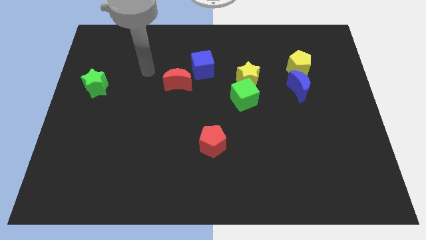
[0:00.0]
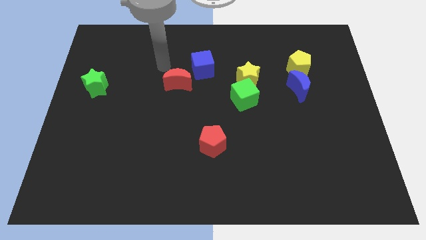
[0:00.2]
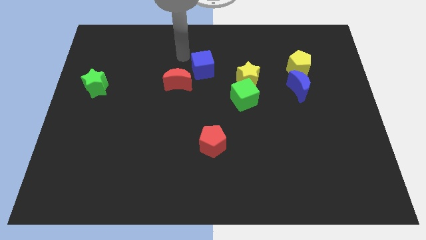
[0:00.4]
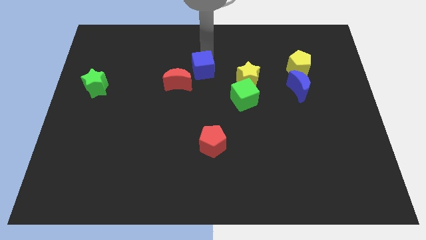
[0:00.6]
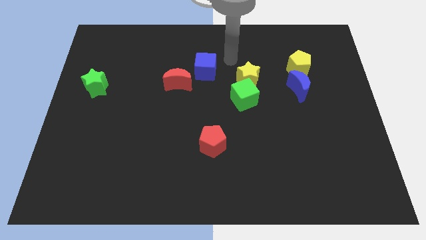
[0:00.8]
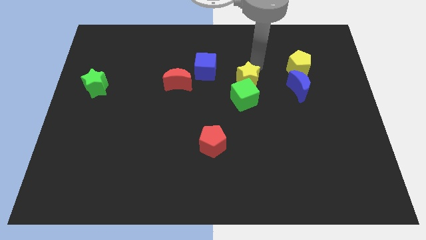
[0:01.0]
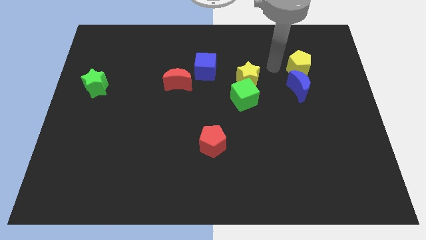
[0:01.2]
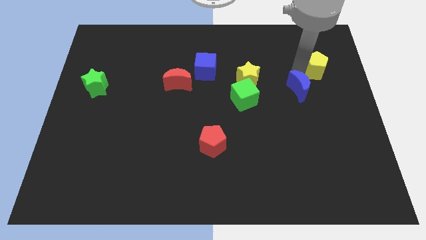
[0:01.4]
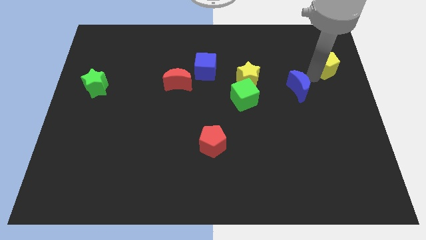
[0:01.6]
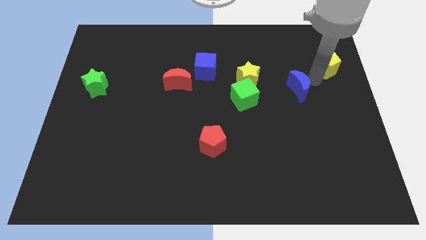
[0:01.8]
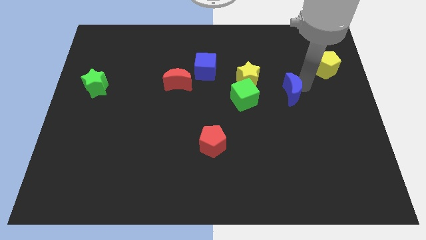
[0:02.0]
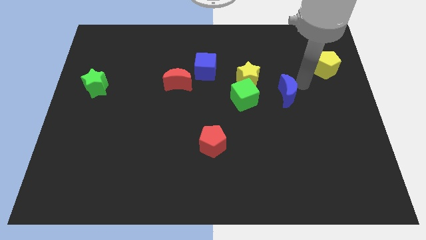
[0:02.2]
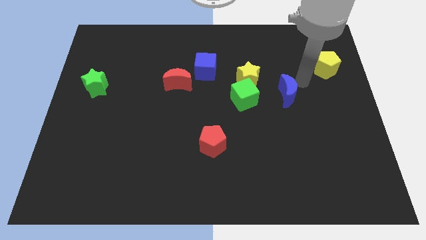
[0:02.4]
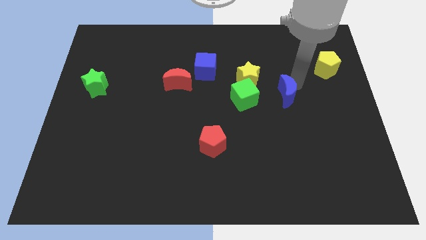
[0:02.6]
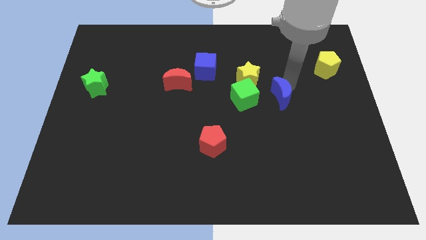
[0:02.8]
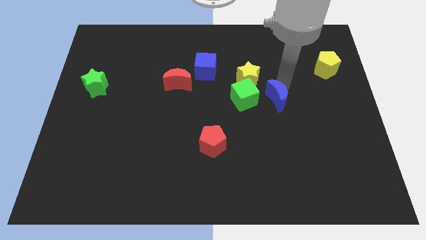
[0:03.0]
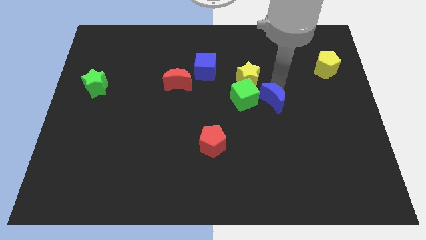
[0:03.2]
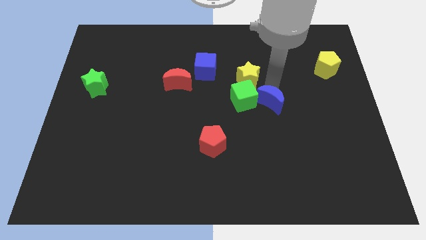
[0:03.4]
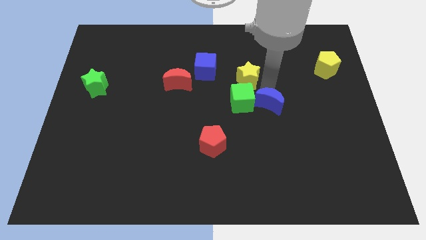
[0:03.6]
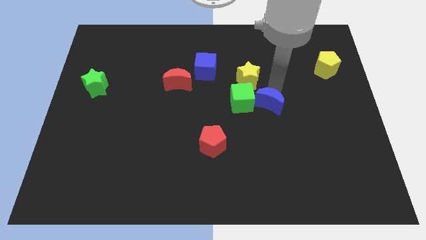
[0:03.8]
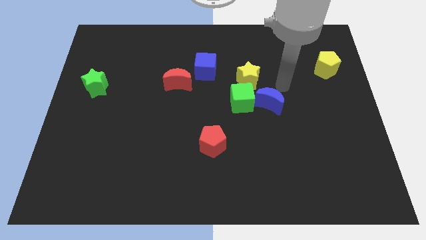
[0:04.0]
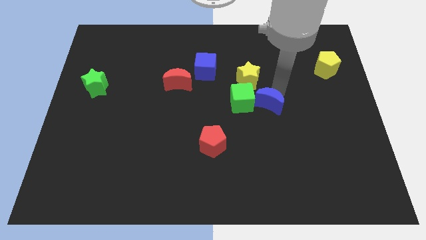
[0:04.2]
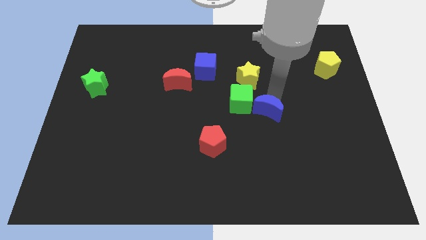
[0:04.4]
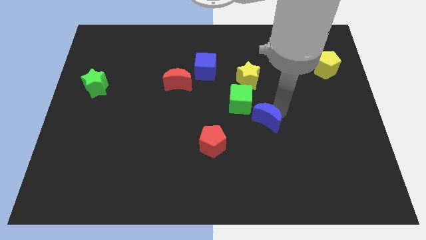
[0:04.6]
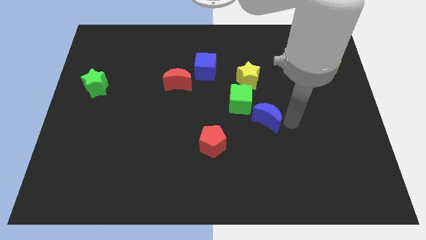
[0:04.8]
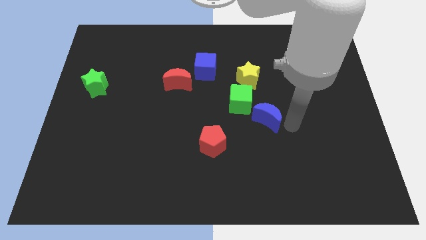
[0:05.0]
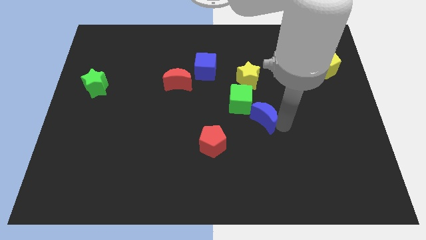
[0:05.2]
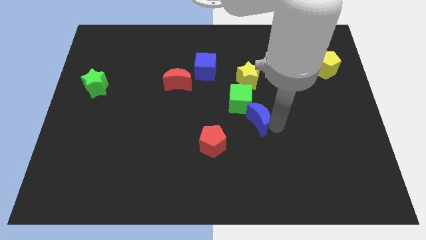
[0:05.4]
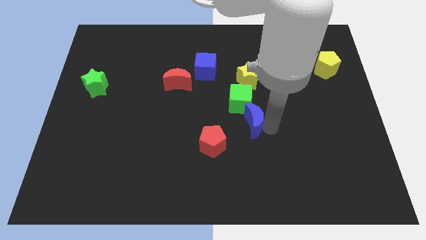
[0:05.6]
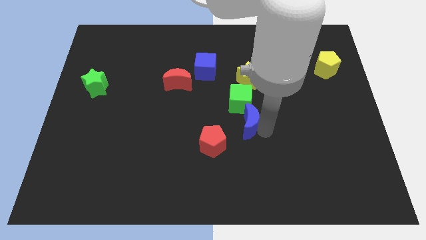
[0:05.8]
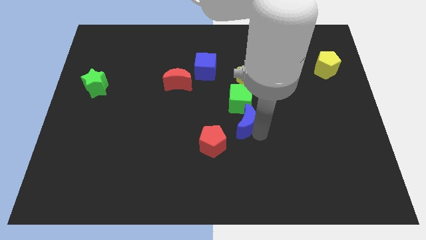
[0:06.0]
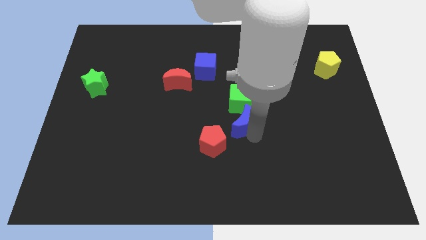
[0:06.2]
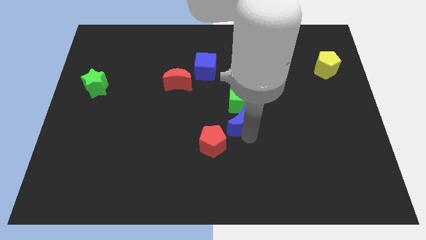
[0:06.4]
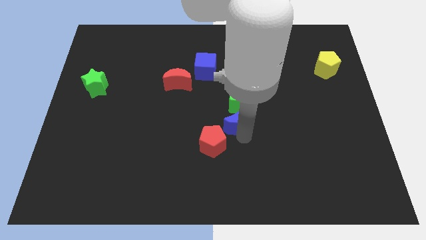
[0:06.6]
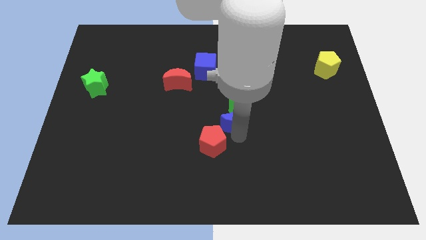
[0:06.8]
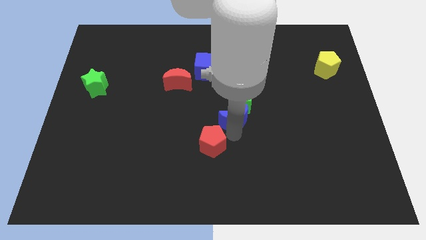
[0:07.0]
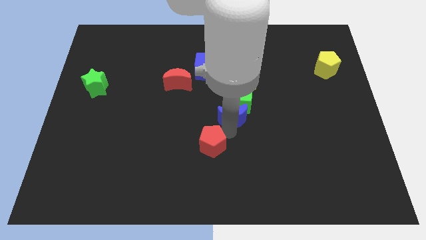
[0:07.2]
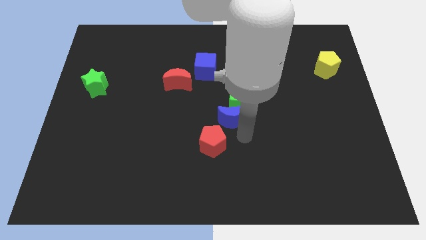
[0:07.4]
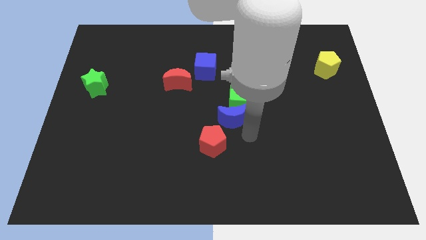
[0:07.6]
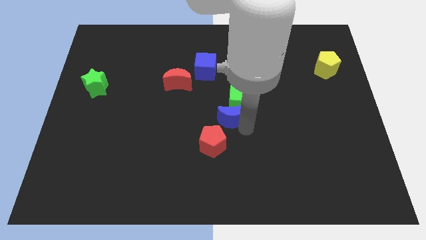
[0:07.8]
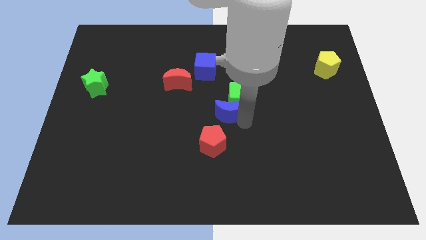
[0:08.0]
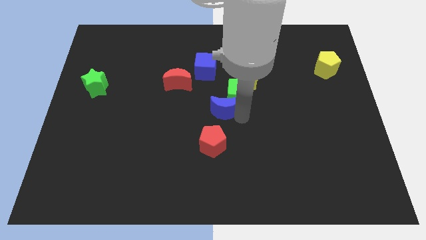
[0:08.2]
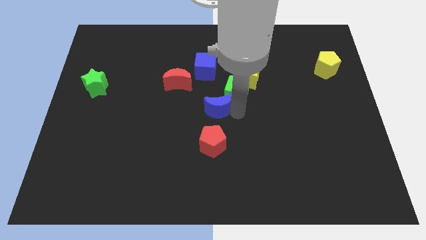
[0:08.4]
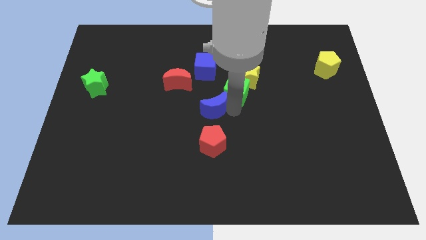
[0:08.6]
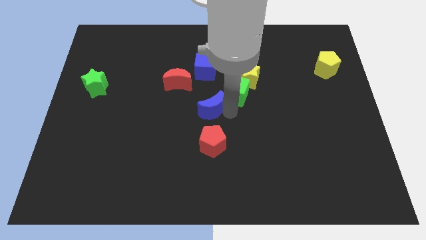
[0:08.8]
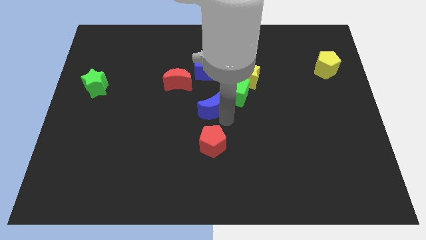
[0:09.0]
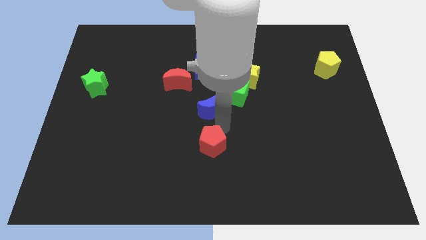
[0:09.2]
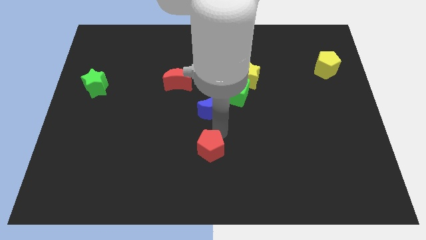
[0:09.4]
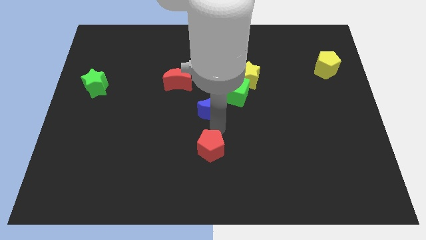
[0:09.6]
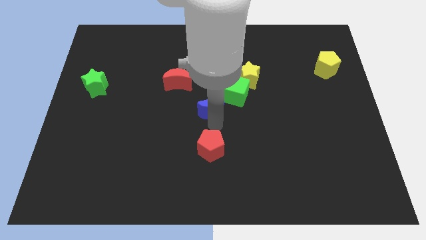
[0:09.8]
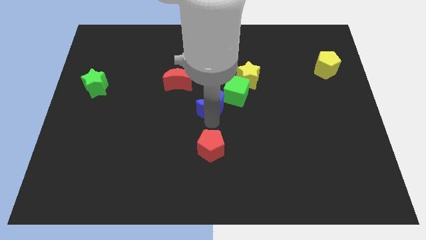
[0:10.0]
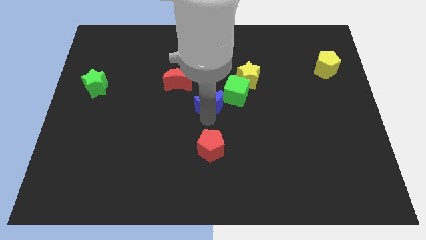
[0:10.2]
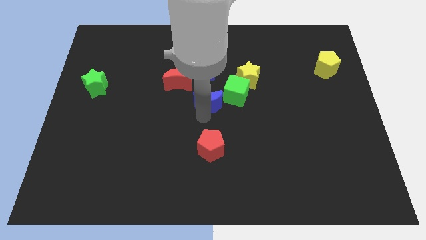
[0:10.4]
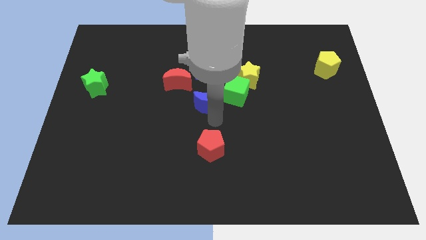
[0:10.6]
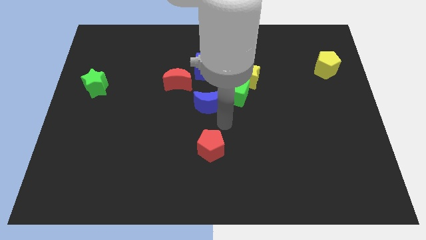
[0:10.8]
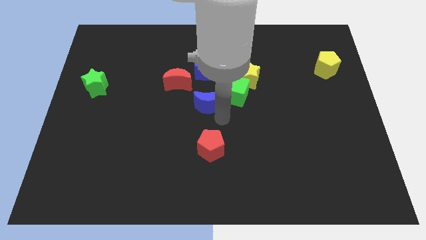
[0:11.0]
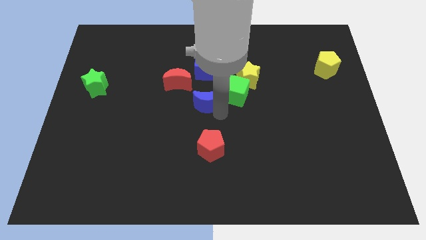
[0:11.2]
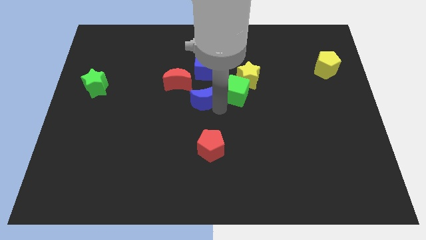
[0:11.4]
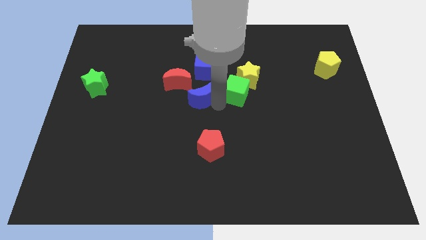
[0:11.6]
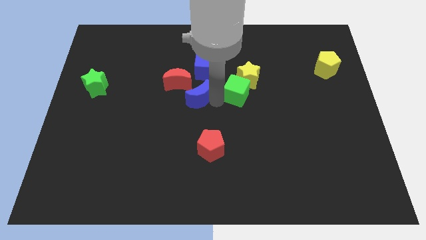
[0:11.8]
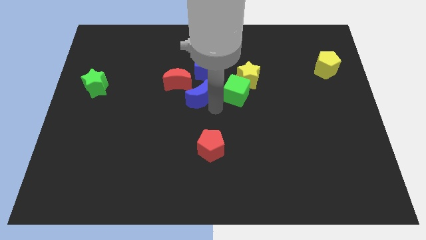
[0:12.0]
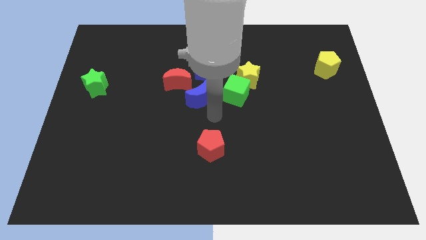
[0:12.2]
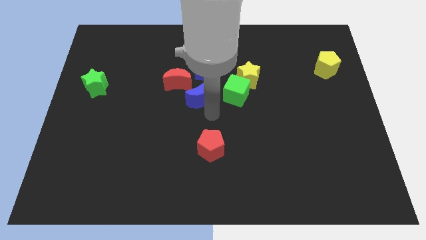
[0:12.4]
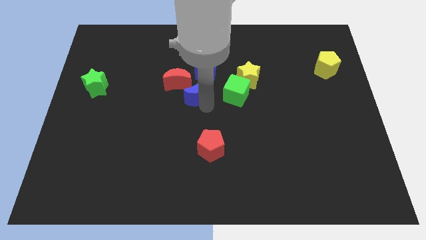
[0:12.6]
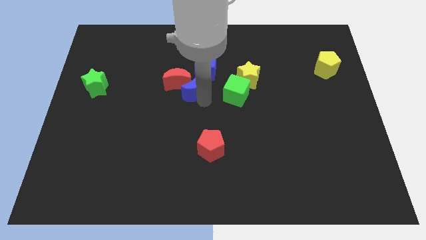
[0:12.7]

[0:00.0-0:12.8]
push the blue moon next to the red moon
